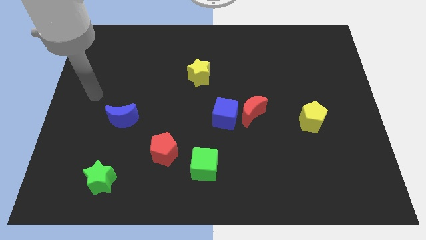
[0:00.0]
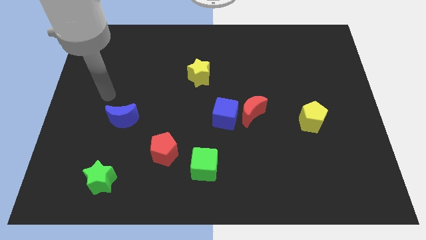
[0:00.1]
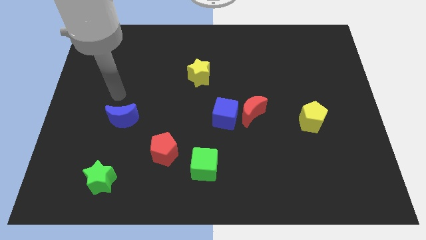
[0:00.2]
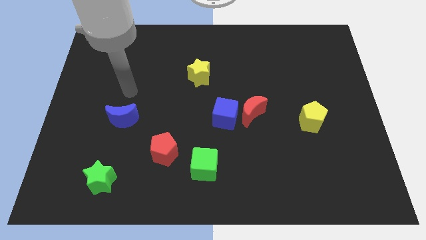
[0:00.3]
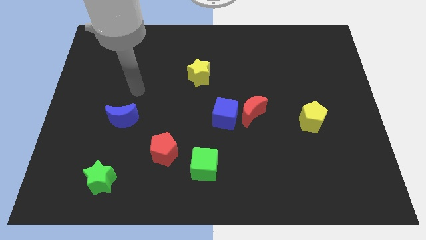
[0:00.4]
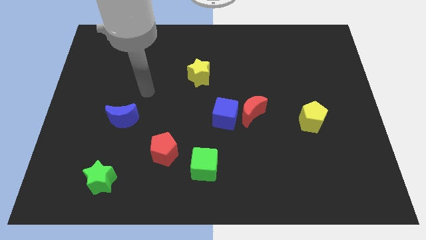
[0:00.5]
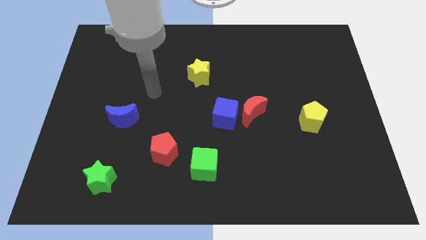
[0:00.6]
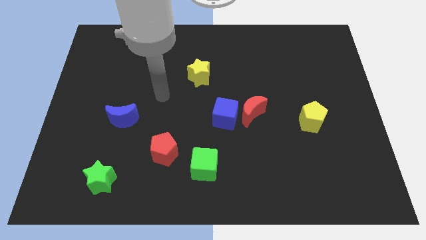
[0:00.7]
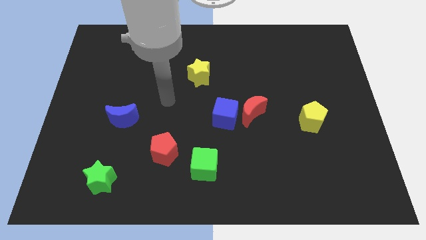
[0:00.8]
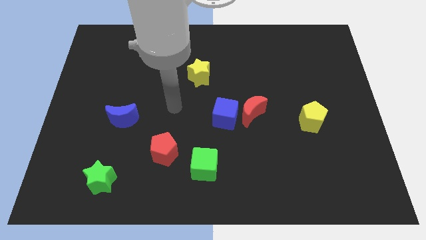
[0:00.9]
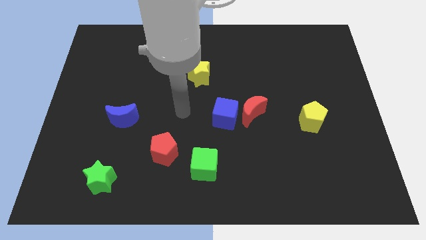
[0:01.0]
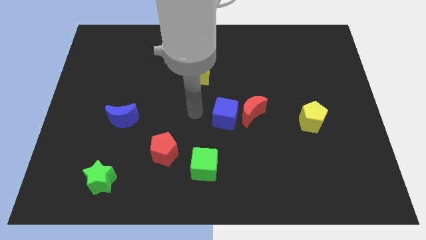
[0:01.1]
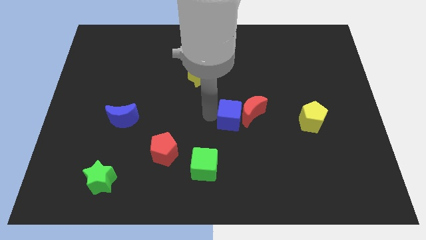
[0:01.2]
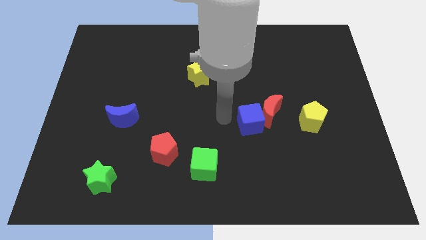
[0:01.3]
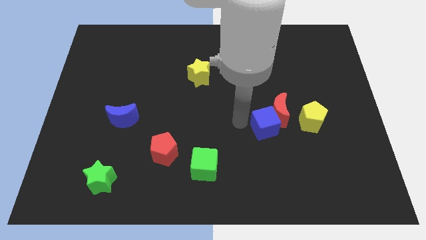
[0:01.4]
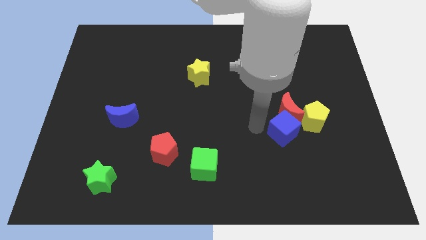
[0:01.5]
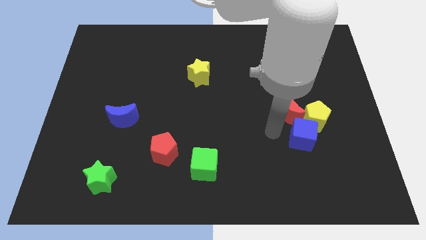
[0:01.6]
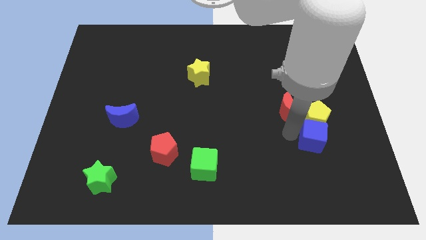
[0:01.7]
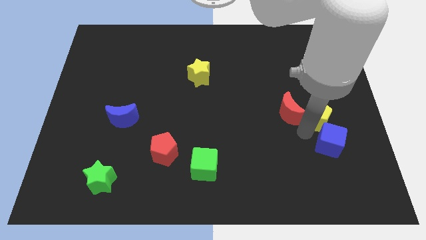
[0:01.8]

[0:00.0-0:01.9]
separate the red moon from the blue cube

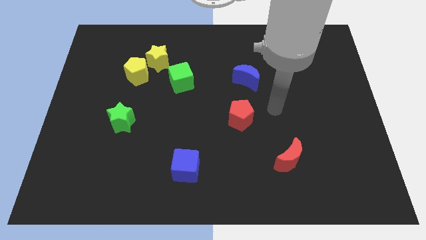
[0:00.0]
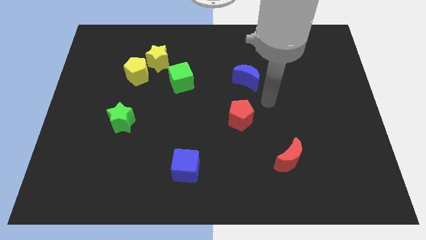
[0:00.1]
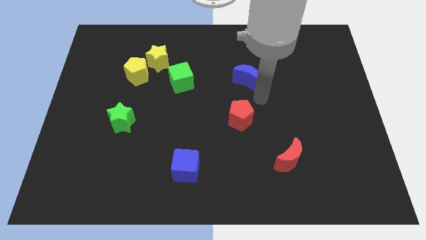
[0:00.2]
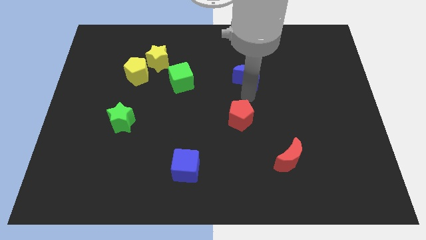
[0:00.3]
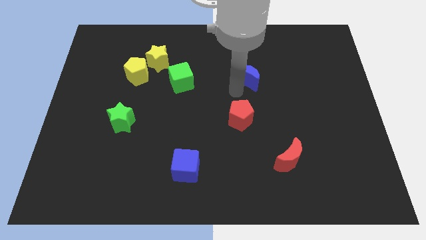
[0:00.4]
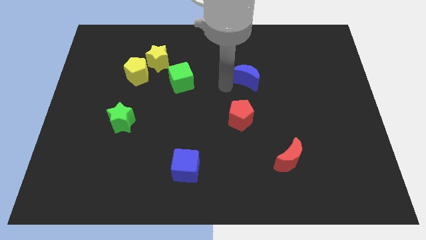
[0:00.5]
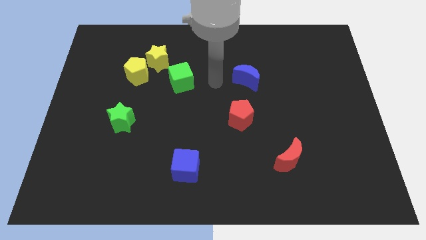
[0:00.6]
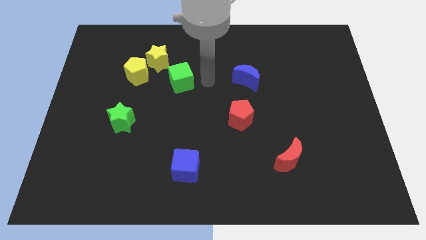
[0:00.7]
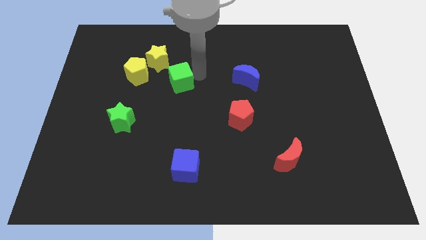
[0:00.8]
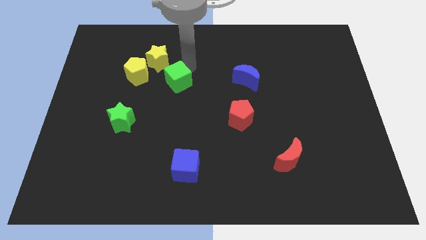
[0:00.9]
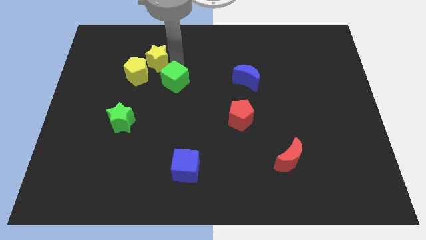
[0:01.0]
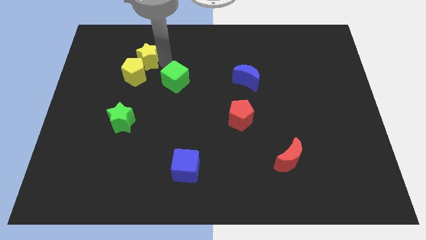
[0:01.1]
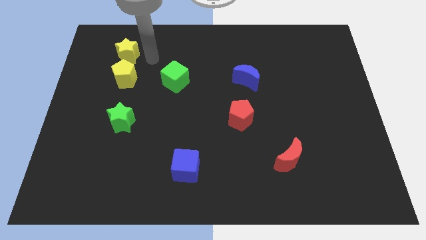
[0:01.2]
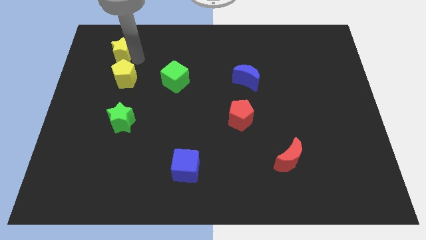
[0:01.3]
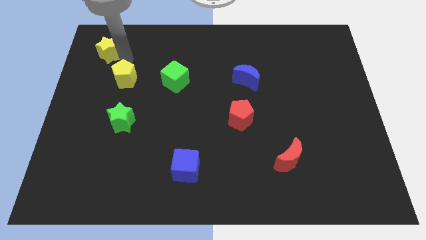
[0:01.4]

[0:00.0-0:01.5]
pull the yellow pentagon apart from the yellow star

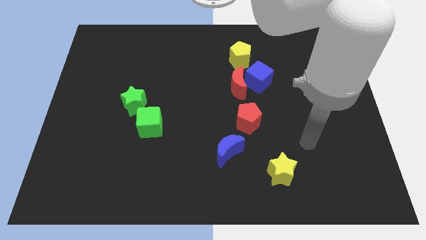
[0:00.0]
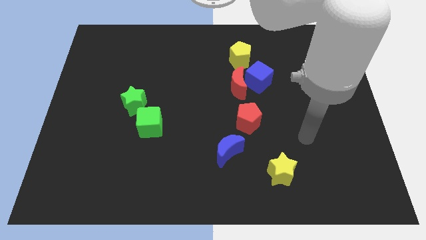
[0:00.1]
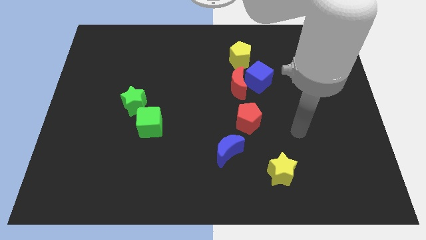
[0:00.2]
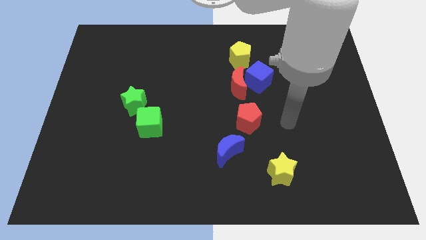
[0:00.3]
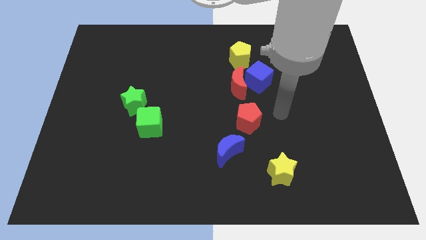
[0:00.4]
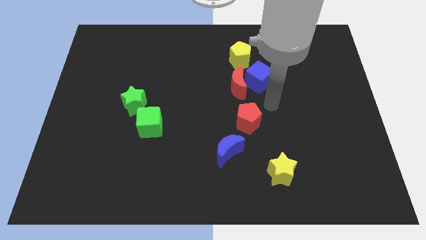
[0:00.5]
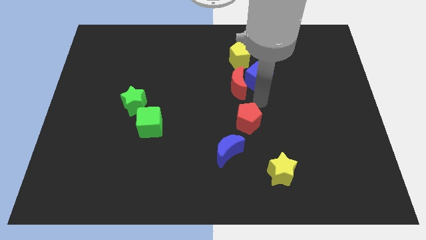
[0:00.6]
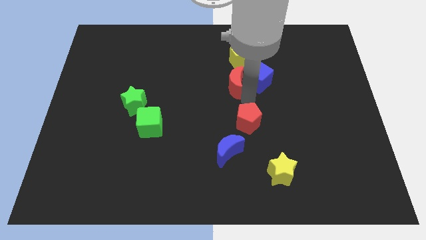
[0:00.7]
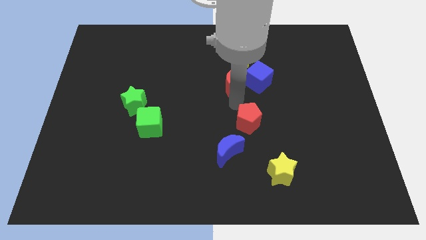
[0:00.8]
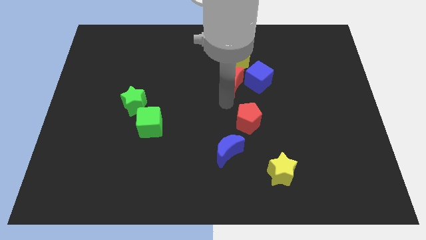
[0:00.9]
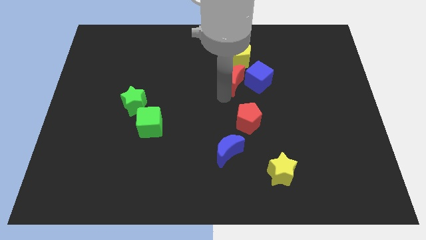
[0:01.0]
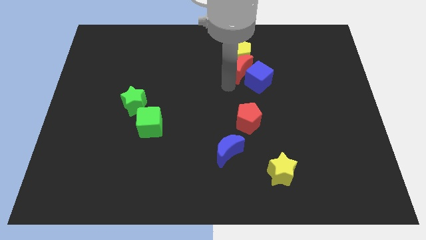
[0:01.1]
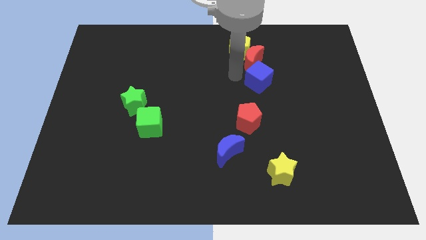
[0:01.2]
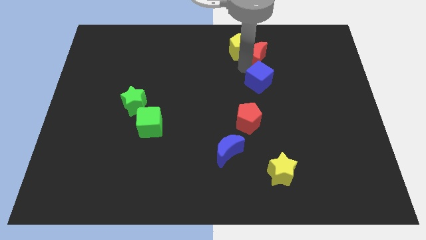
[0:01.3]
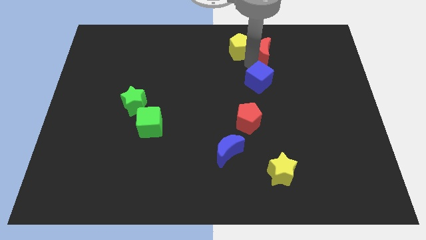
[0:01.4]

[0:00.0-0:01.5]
separate the blue cube from the red moon and yellow pentagon

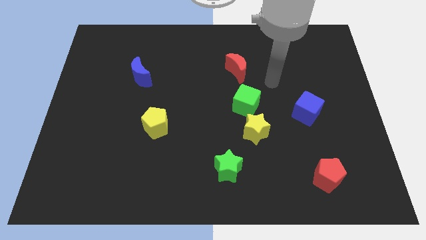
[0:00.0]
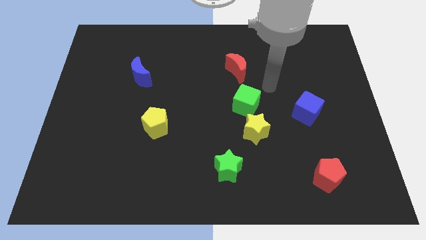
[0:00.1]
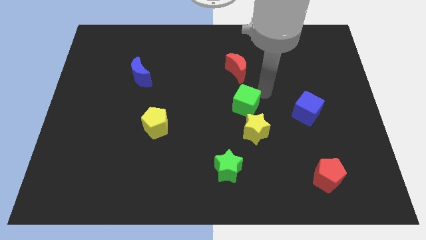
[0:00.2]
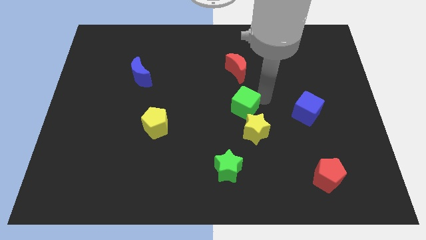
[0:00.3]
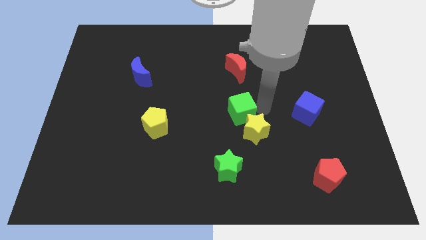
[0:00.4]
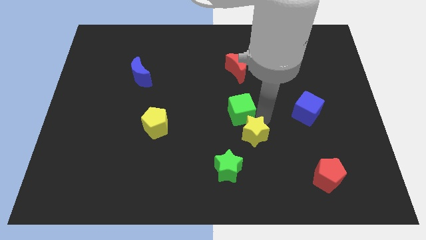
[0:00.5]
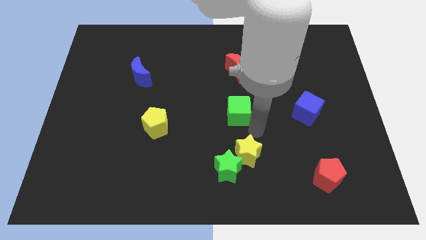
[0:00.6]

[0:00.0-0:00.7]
separate the green cube from the yellow star

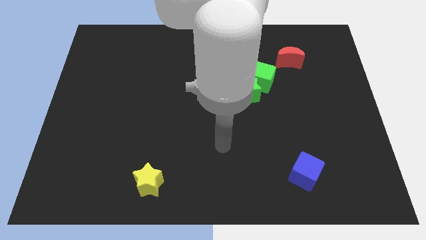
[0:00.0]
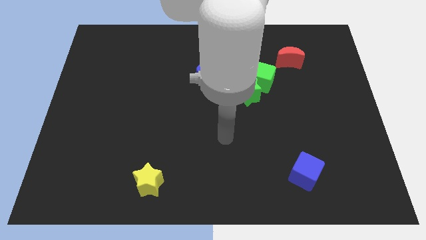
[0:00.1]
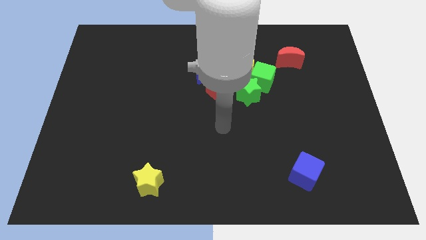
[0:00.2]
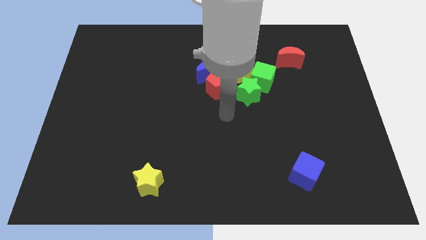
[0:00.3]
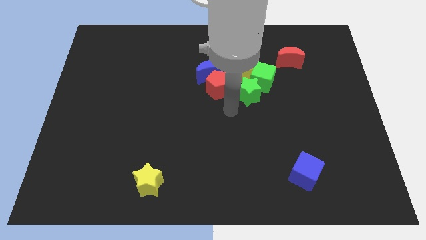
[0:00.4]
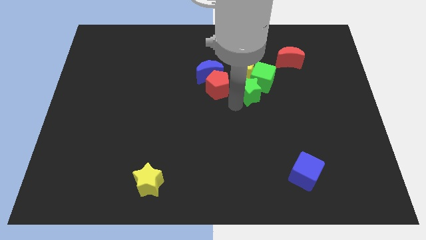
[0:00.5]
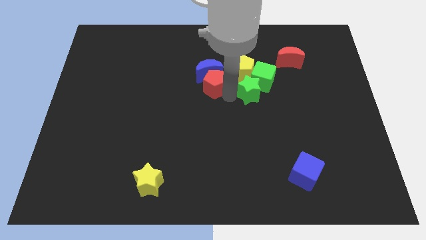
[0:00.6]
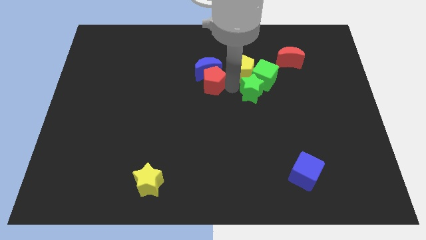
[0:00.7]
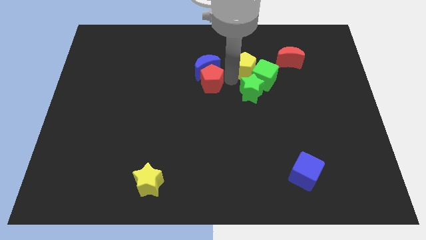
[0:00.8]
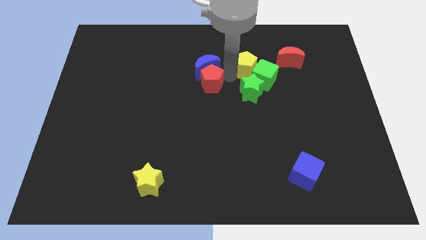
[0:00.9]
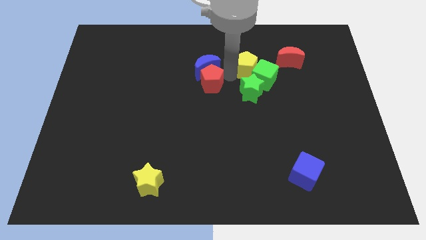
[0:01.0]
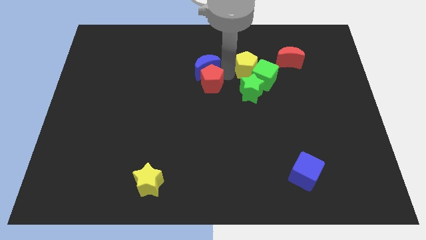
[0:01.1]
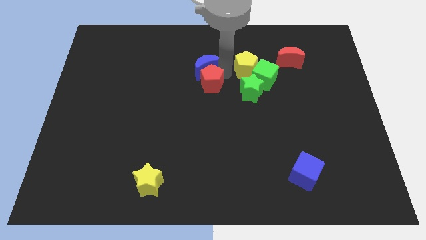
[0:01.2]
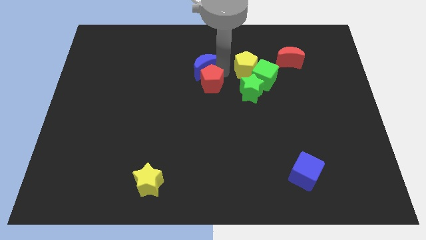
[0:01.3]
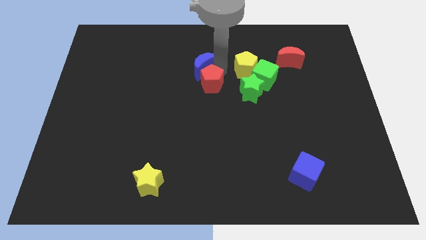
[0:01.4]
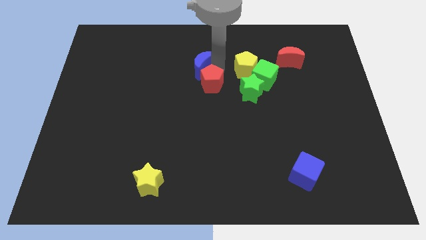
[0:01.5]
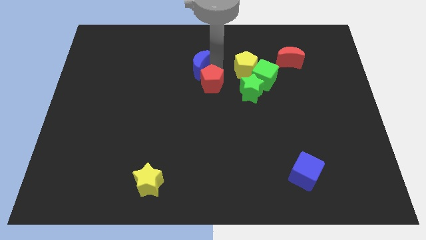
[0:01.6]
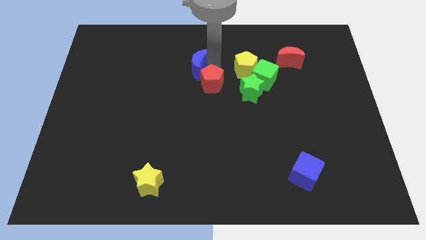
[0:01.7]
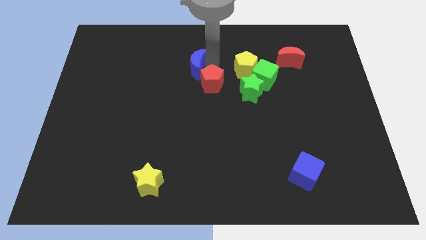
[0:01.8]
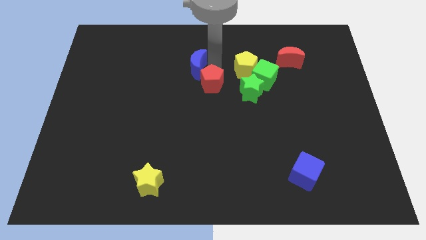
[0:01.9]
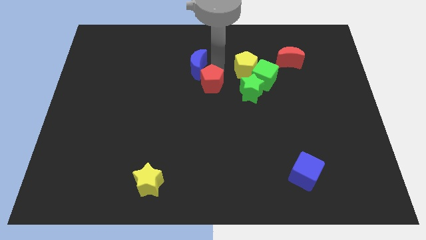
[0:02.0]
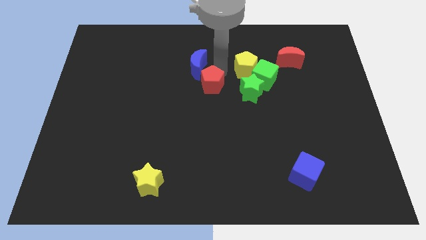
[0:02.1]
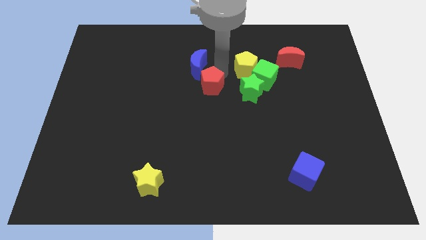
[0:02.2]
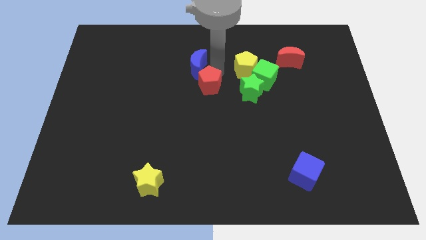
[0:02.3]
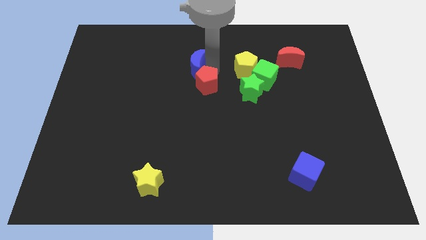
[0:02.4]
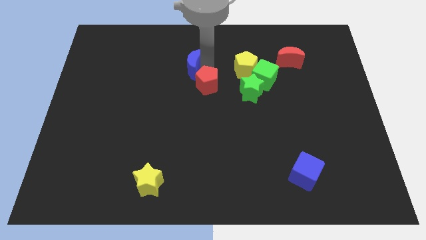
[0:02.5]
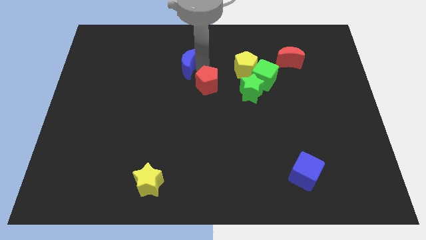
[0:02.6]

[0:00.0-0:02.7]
pull the blue moon apart from the red pentagon and yellow pentagon

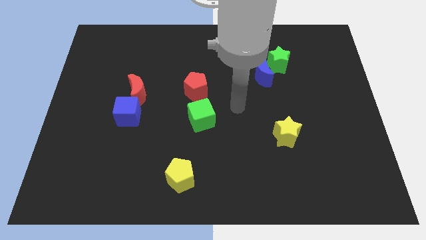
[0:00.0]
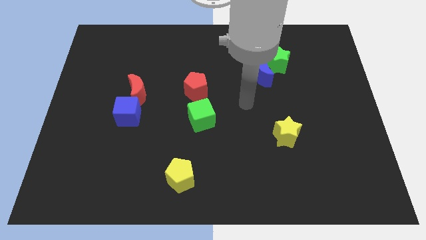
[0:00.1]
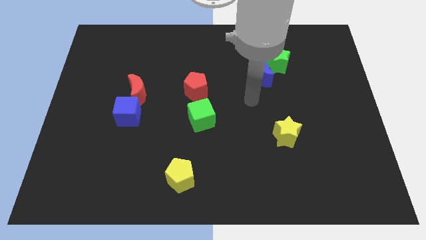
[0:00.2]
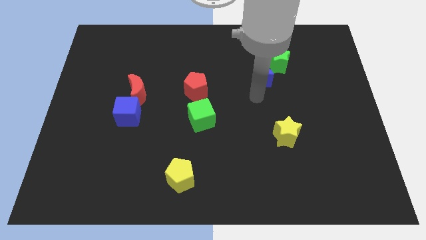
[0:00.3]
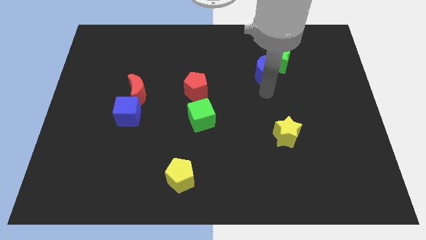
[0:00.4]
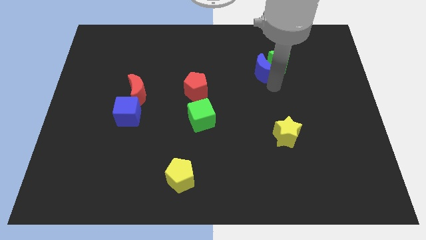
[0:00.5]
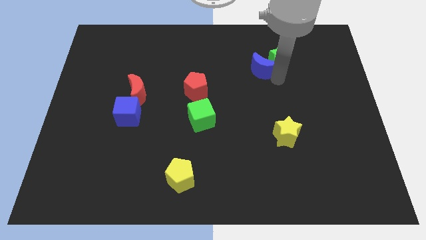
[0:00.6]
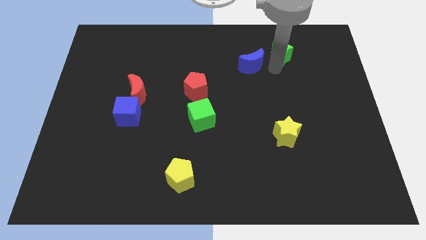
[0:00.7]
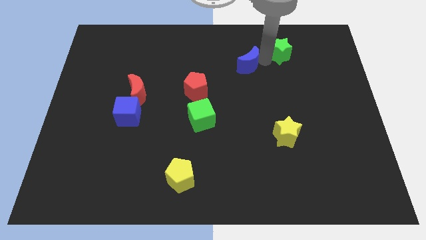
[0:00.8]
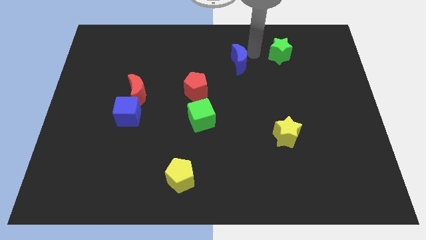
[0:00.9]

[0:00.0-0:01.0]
move the blue moon away from the green star
